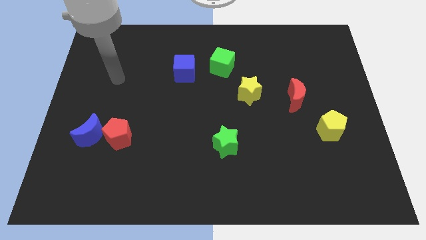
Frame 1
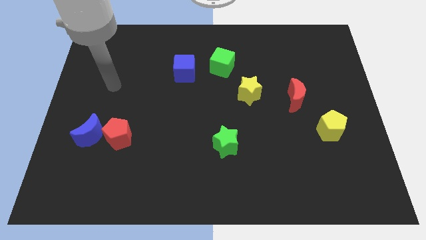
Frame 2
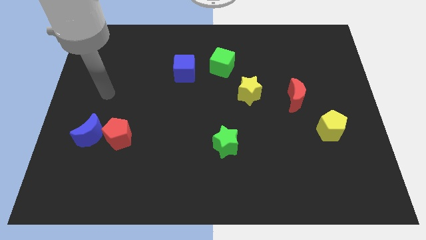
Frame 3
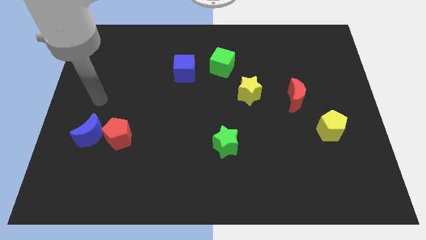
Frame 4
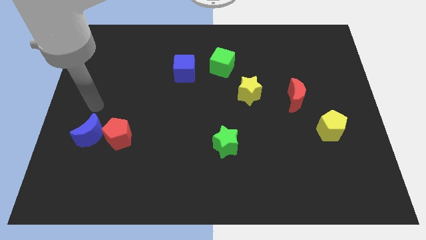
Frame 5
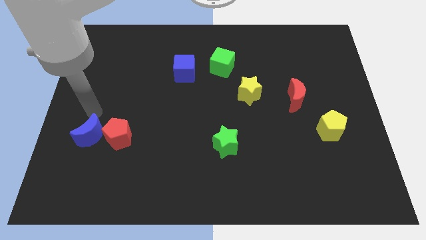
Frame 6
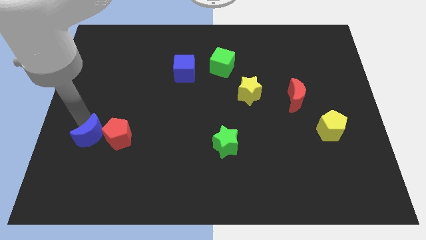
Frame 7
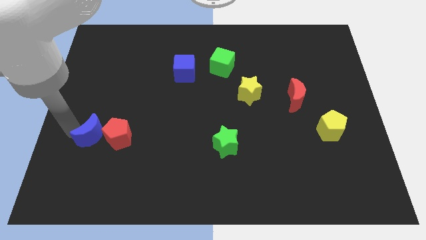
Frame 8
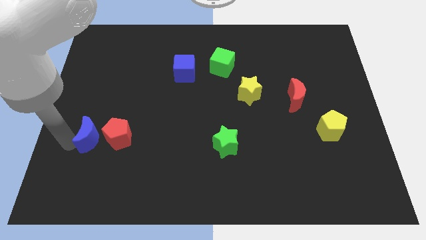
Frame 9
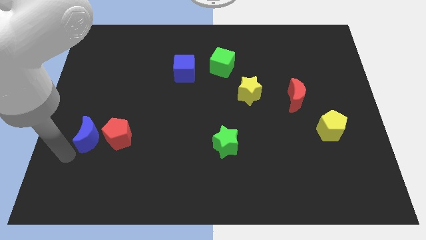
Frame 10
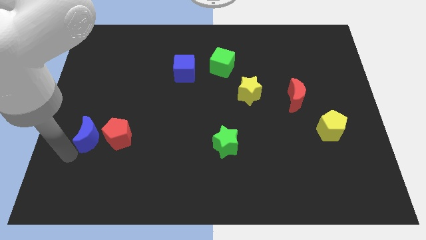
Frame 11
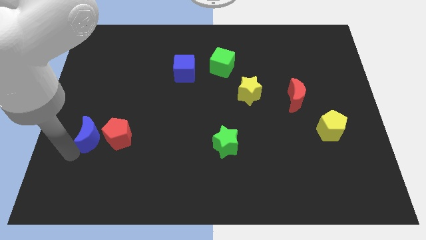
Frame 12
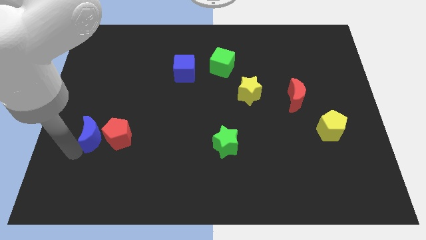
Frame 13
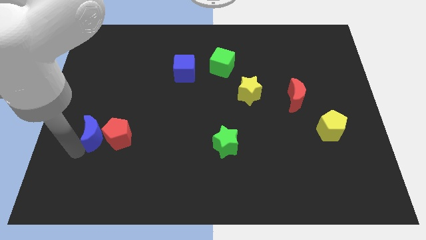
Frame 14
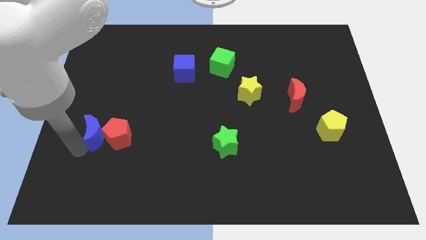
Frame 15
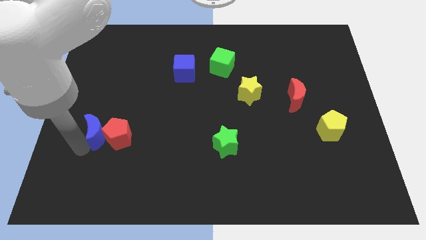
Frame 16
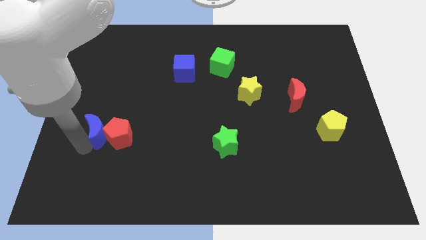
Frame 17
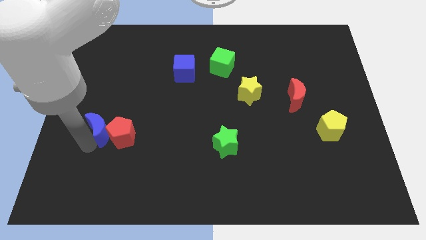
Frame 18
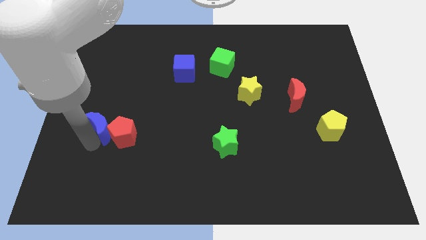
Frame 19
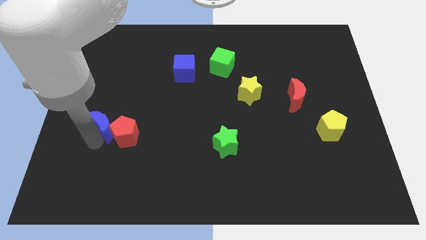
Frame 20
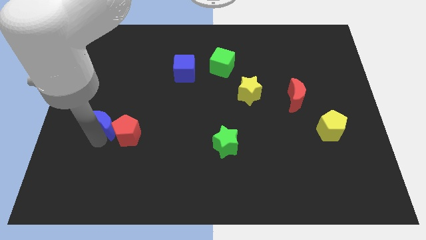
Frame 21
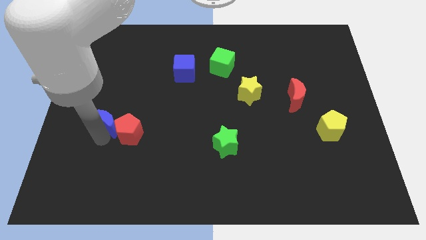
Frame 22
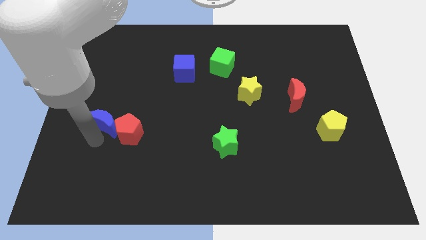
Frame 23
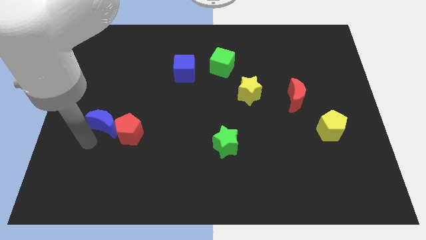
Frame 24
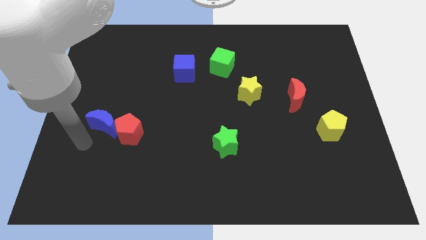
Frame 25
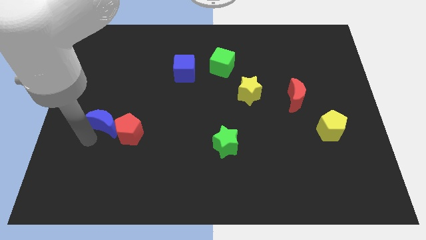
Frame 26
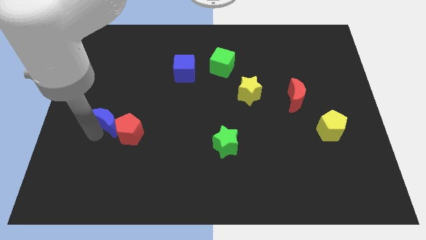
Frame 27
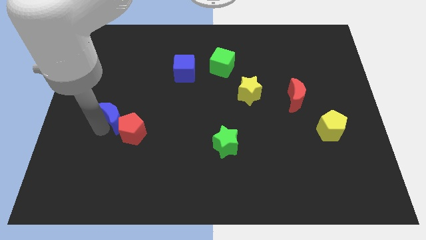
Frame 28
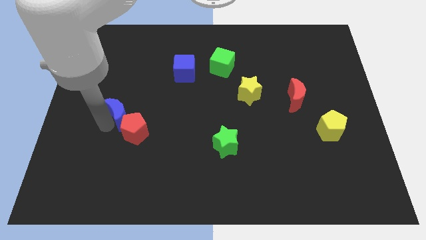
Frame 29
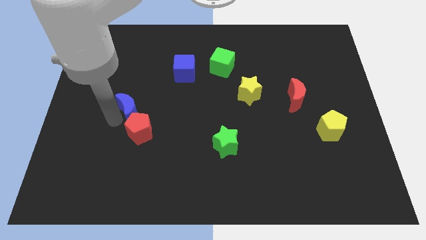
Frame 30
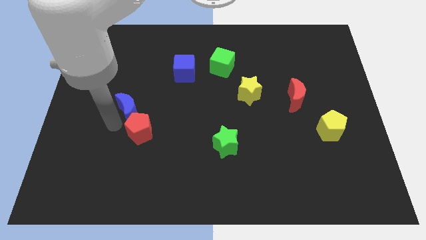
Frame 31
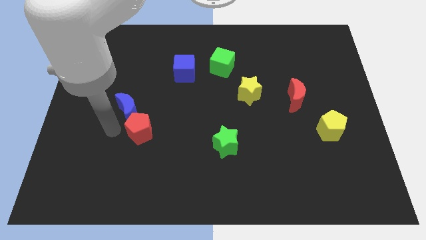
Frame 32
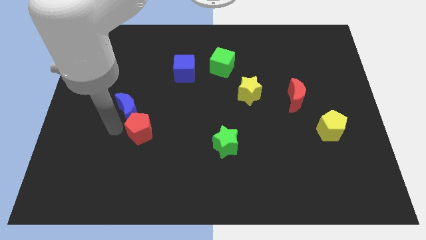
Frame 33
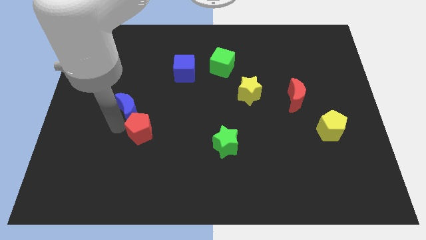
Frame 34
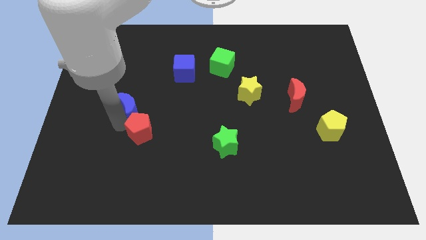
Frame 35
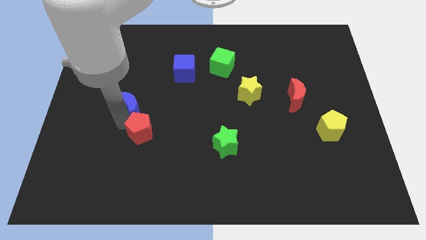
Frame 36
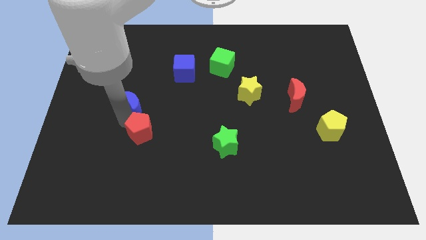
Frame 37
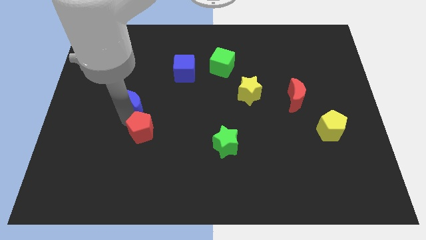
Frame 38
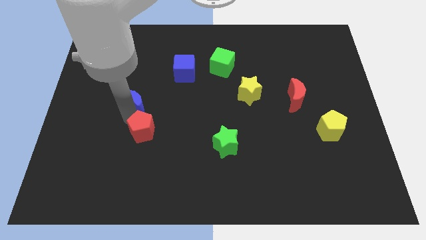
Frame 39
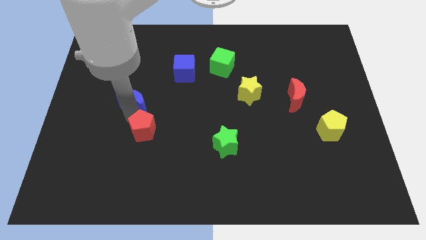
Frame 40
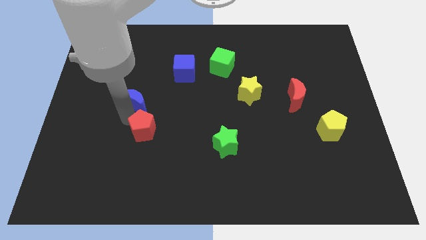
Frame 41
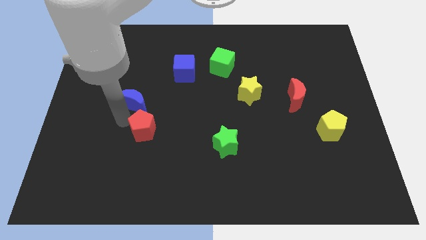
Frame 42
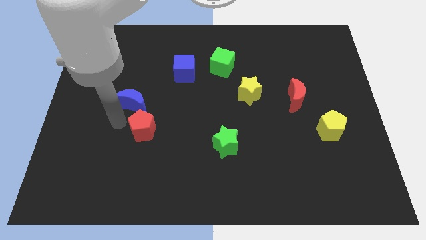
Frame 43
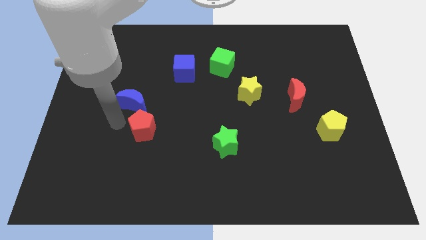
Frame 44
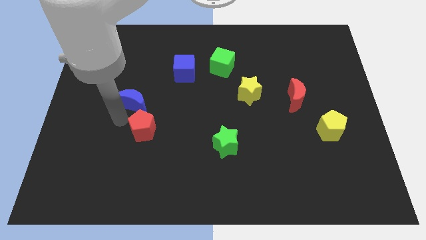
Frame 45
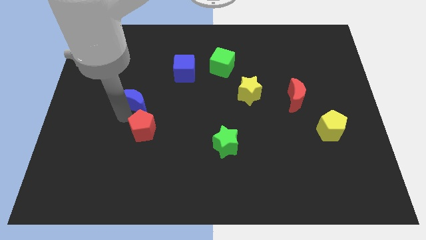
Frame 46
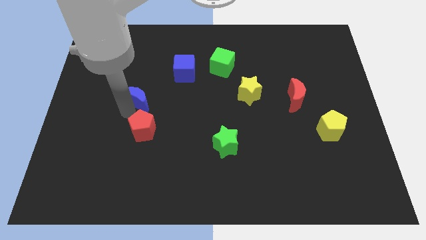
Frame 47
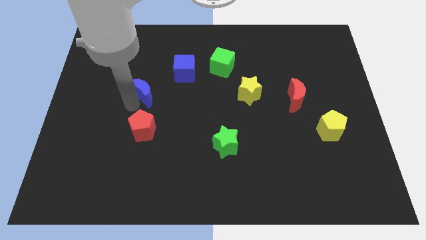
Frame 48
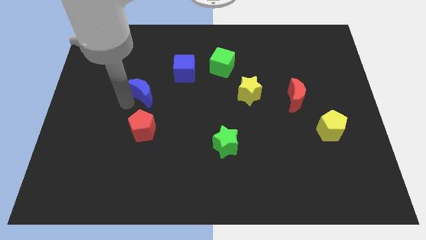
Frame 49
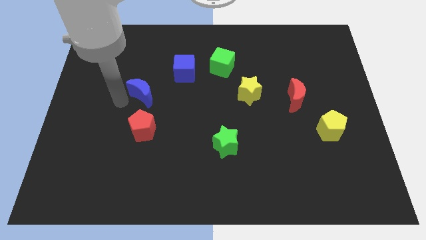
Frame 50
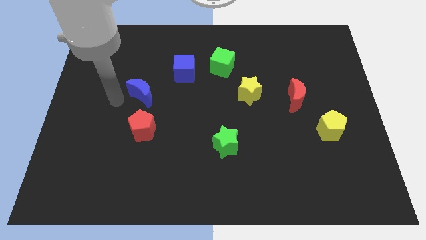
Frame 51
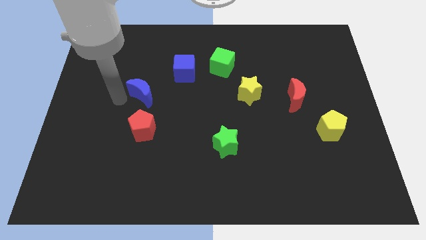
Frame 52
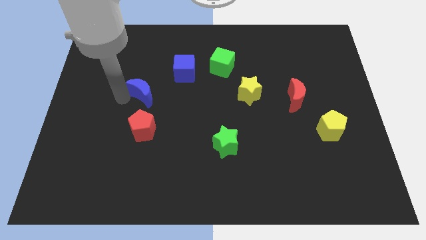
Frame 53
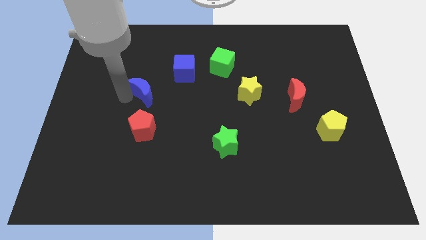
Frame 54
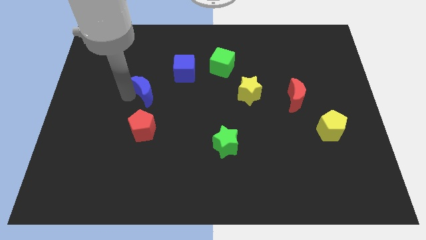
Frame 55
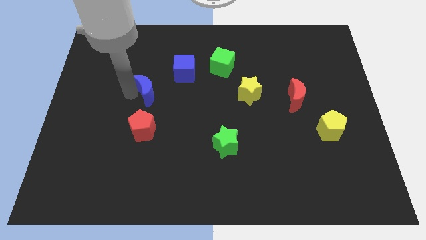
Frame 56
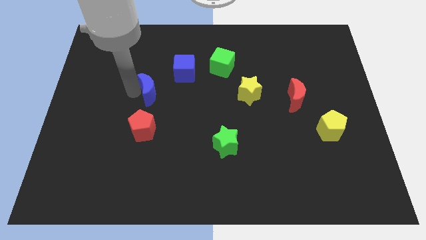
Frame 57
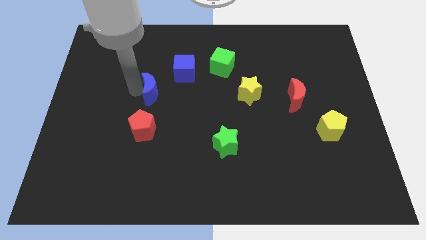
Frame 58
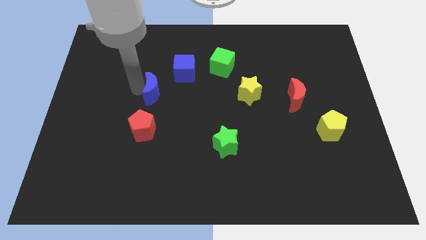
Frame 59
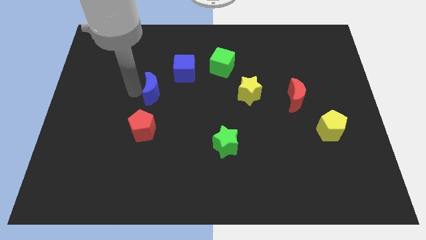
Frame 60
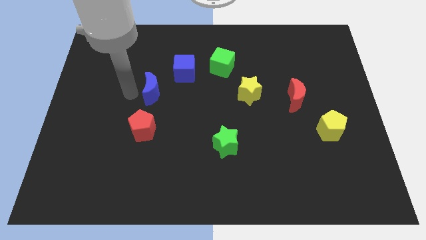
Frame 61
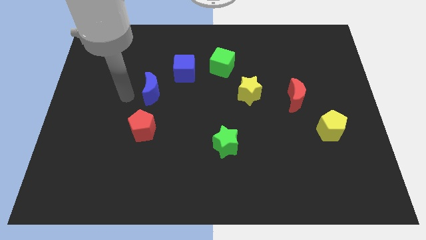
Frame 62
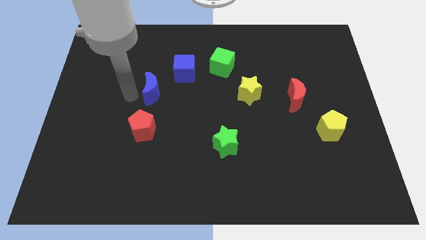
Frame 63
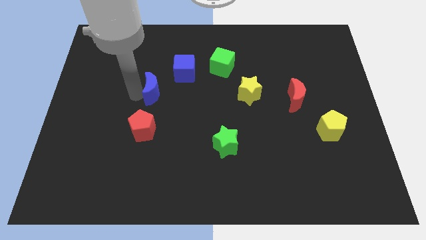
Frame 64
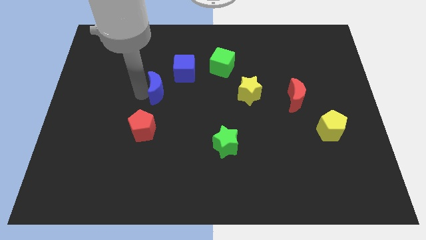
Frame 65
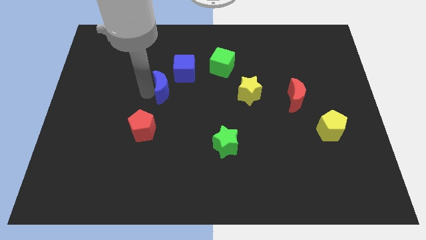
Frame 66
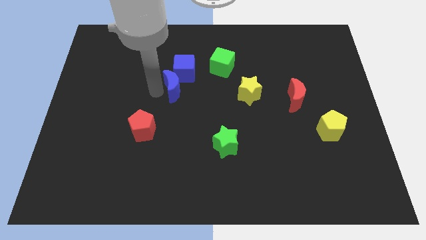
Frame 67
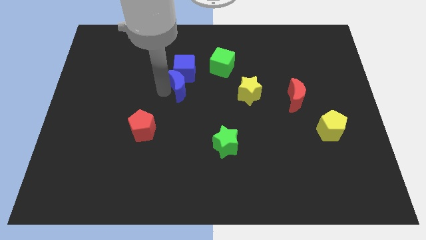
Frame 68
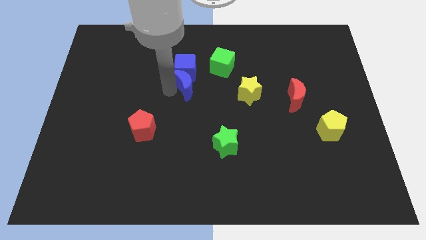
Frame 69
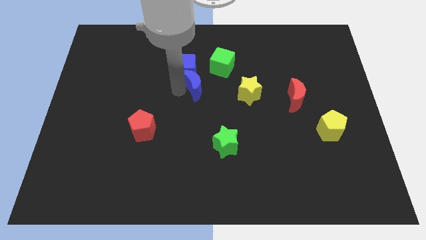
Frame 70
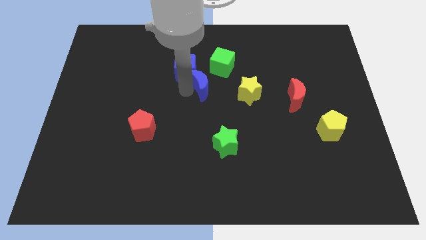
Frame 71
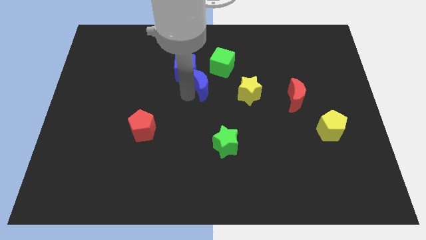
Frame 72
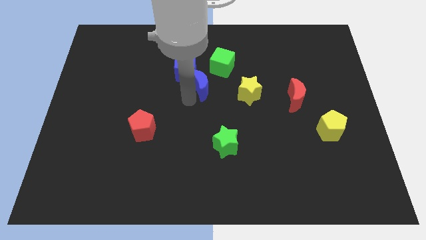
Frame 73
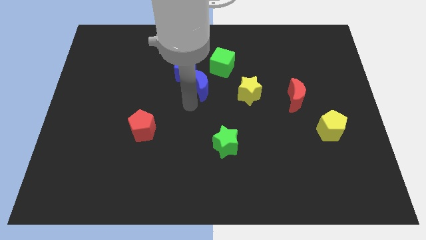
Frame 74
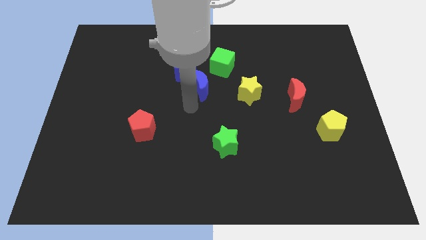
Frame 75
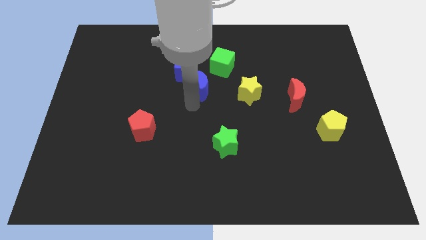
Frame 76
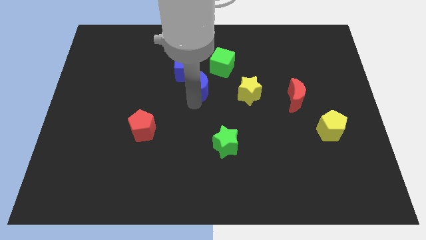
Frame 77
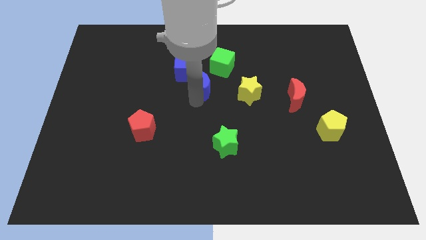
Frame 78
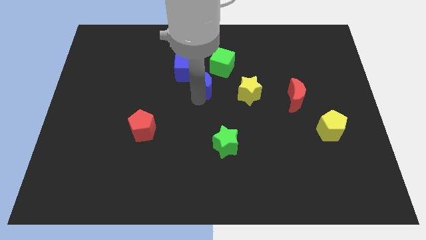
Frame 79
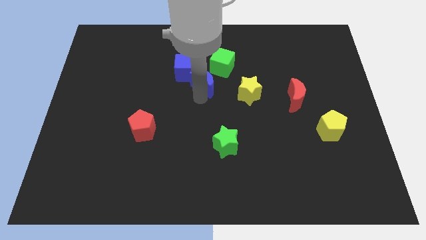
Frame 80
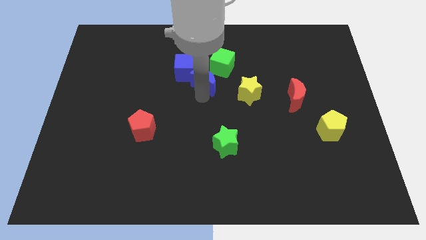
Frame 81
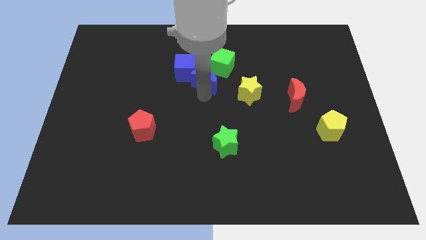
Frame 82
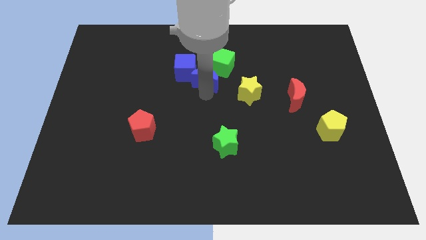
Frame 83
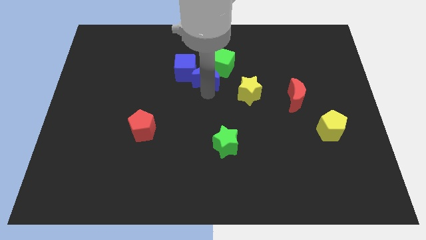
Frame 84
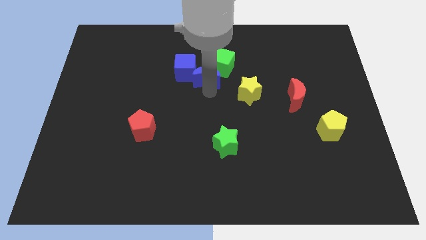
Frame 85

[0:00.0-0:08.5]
push the blue moon close to the green cube
